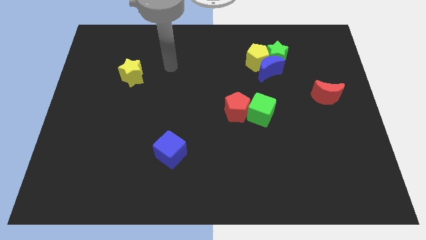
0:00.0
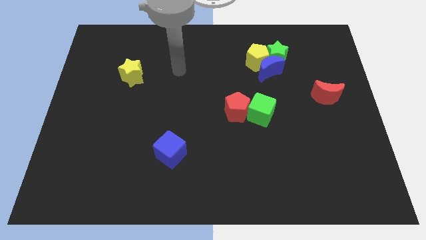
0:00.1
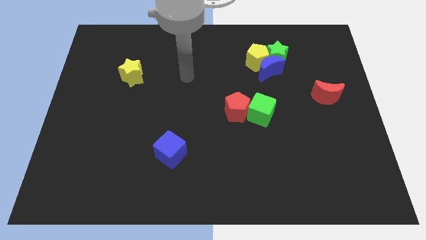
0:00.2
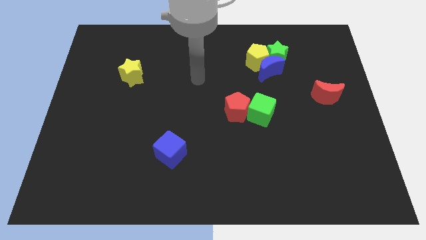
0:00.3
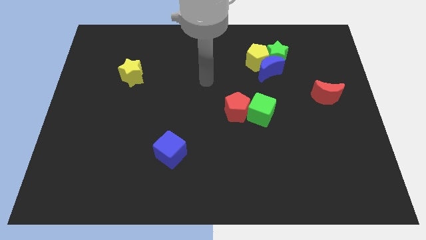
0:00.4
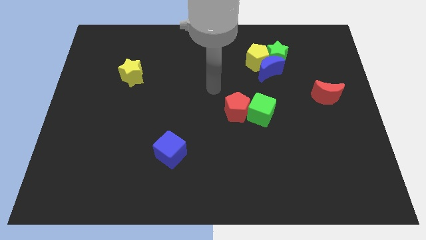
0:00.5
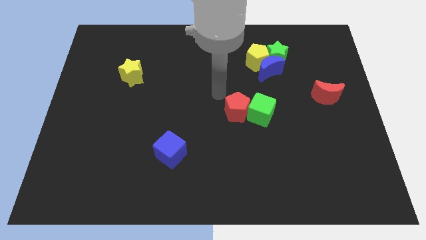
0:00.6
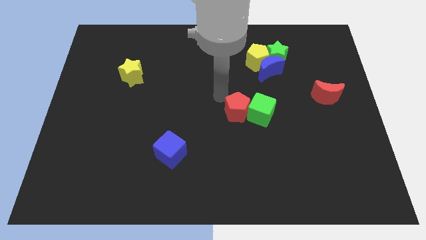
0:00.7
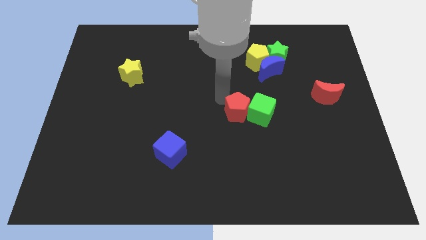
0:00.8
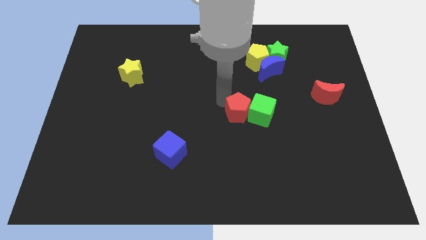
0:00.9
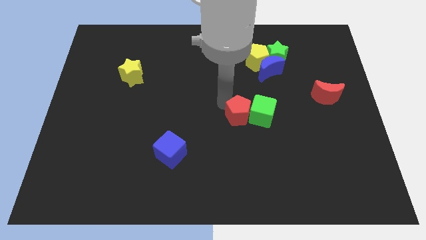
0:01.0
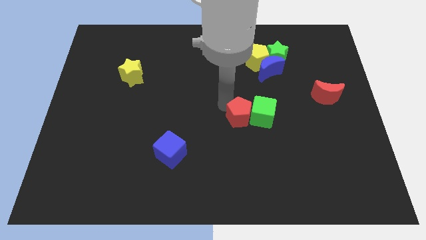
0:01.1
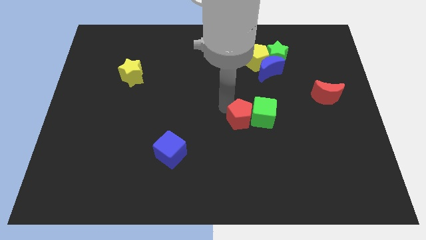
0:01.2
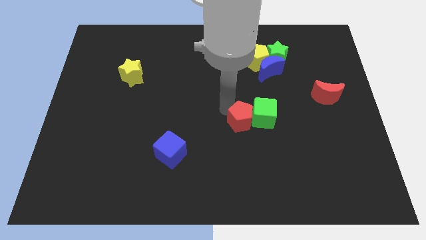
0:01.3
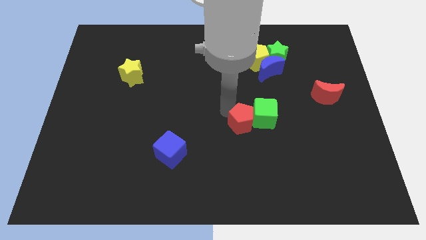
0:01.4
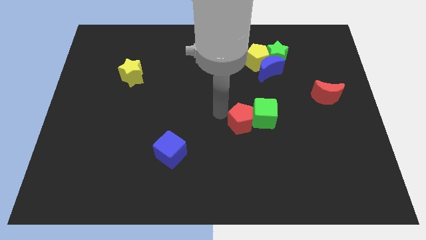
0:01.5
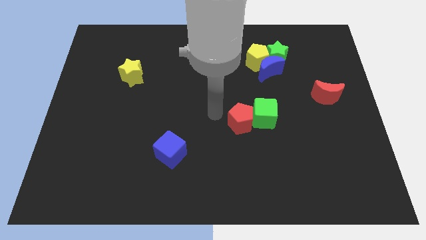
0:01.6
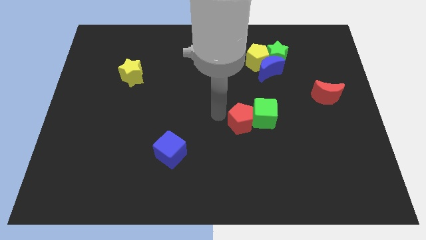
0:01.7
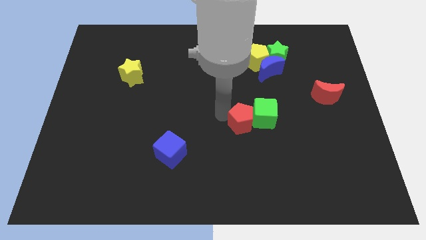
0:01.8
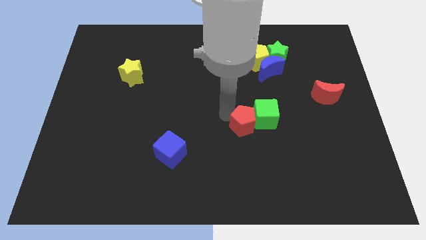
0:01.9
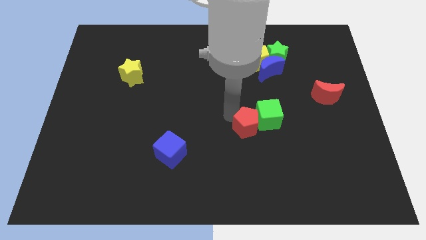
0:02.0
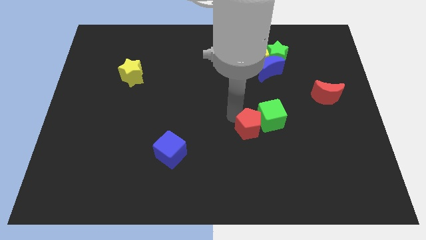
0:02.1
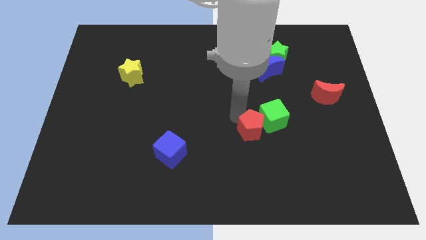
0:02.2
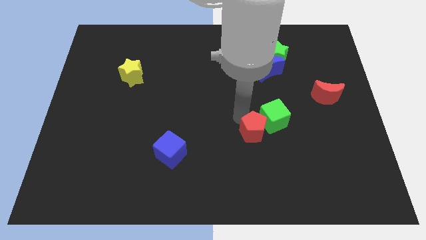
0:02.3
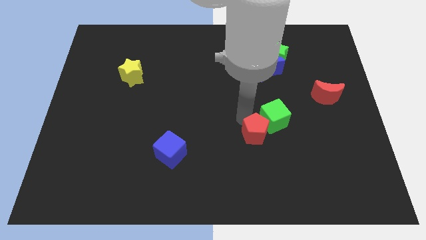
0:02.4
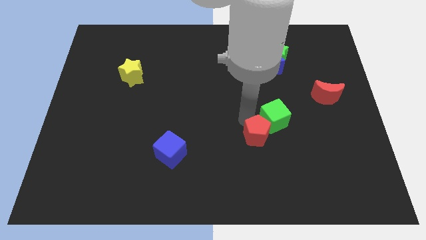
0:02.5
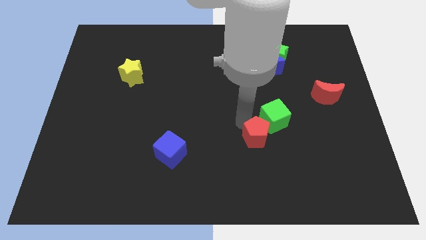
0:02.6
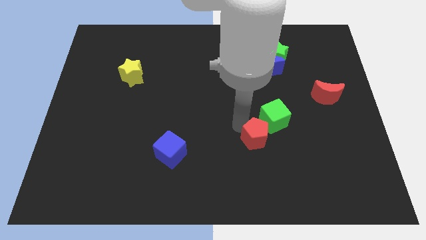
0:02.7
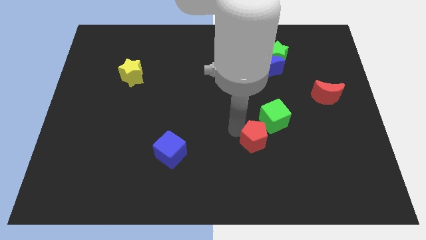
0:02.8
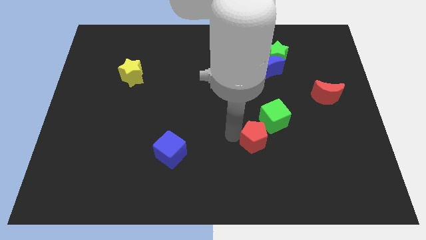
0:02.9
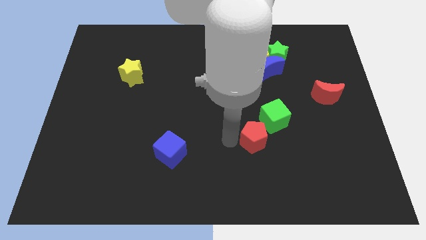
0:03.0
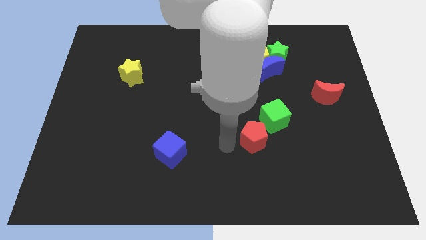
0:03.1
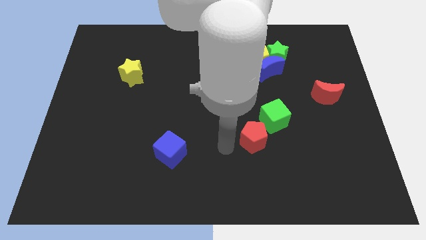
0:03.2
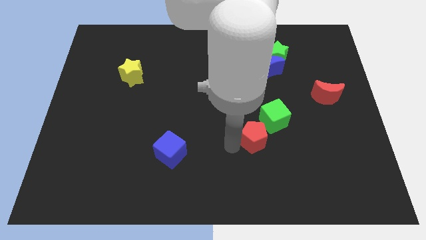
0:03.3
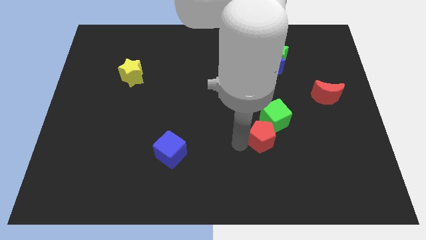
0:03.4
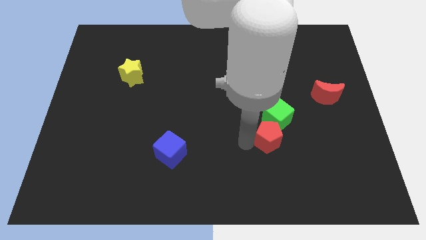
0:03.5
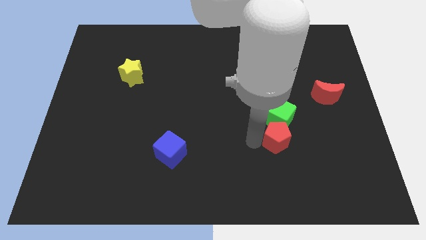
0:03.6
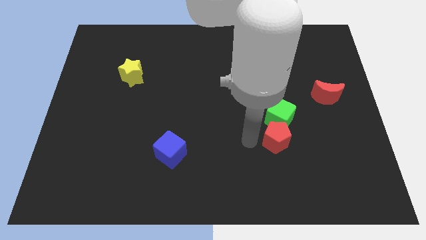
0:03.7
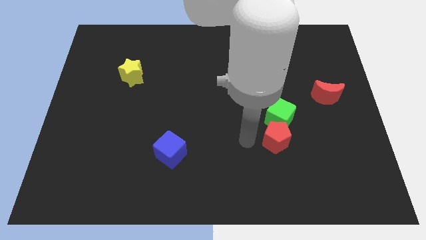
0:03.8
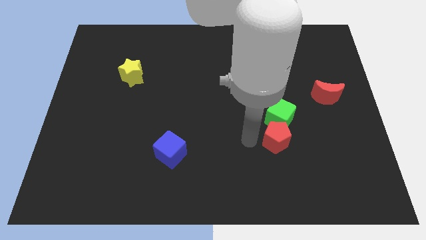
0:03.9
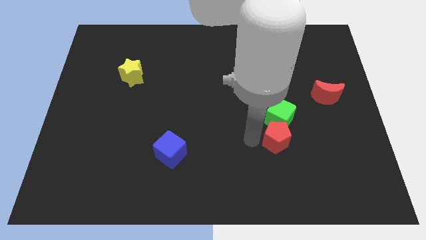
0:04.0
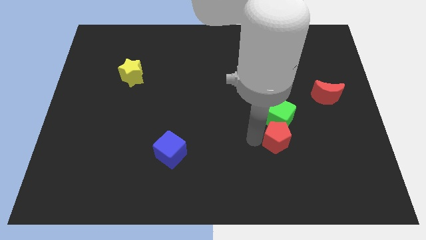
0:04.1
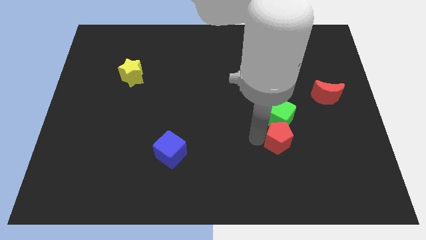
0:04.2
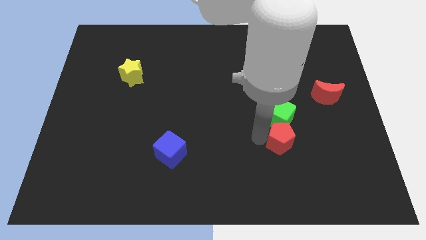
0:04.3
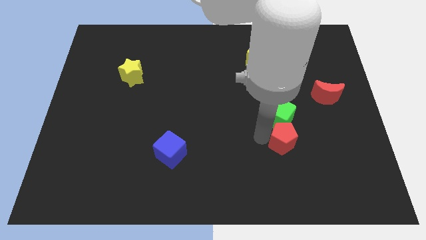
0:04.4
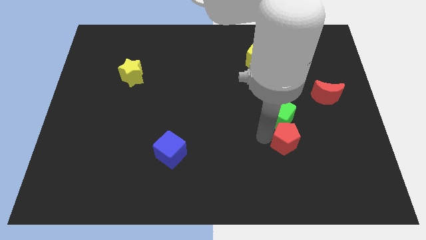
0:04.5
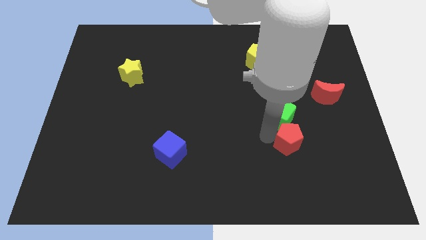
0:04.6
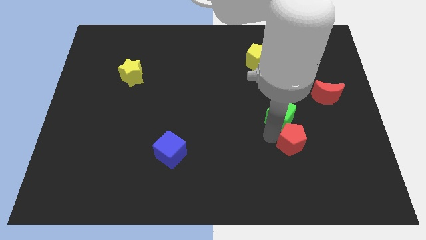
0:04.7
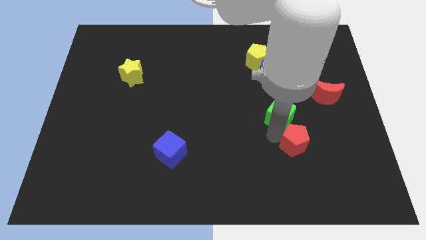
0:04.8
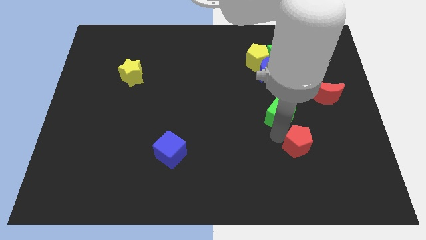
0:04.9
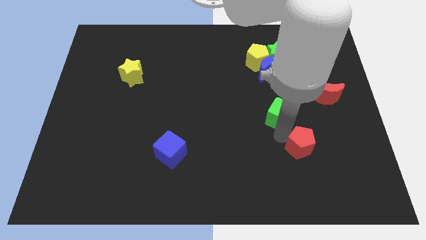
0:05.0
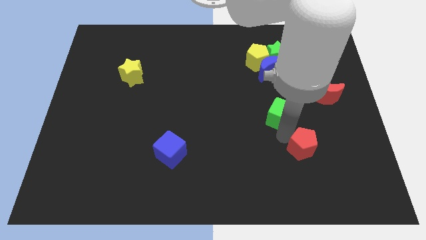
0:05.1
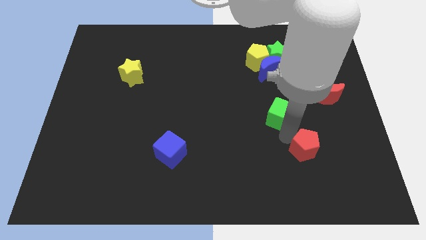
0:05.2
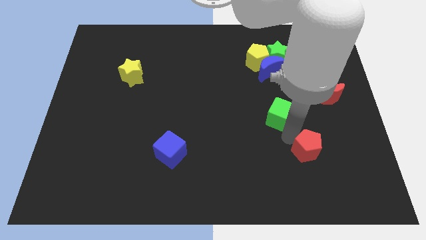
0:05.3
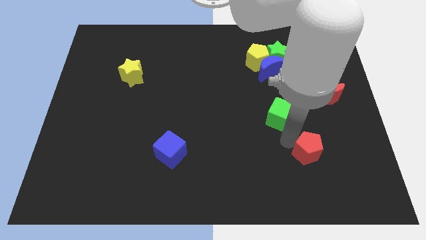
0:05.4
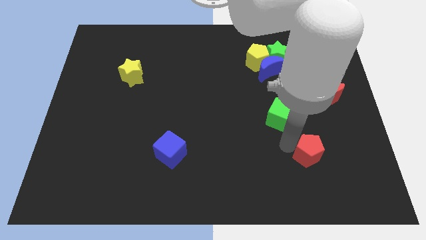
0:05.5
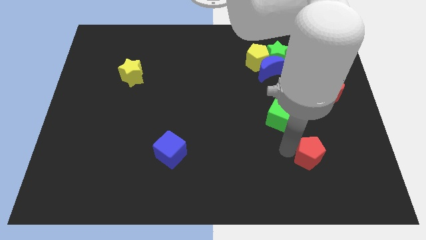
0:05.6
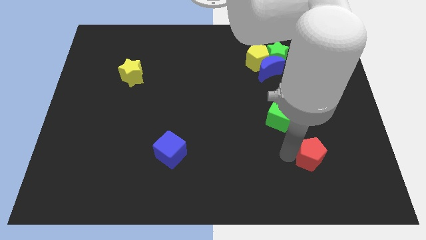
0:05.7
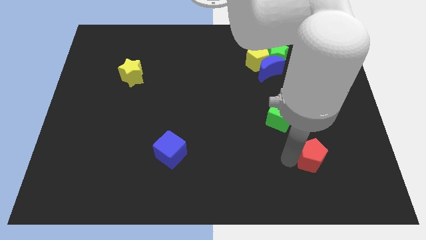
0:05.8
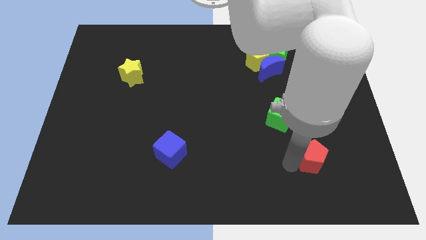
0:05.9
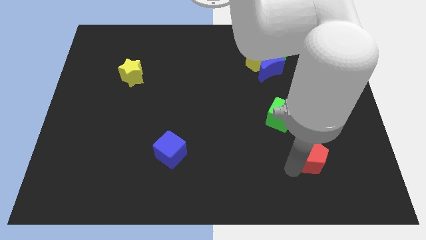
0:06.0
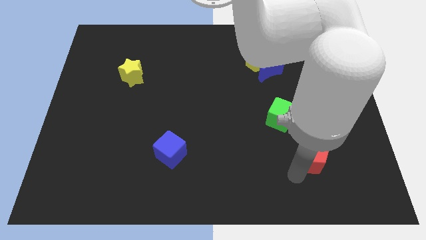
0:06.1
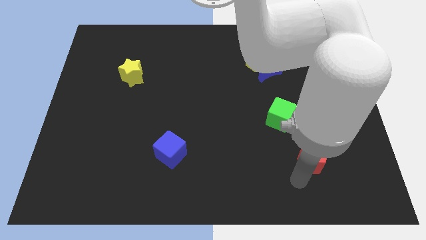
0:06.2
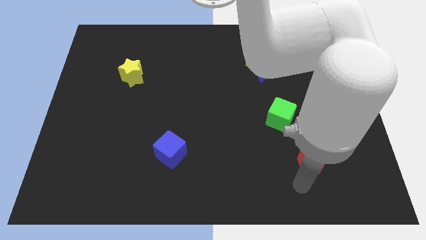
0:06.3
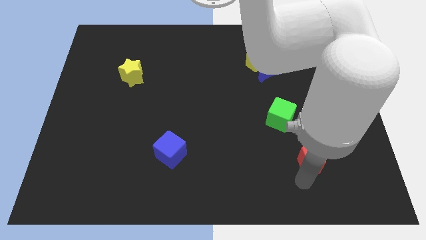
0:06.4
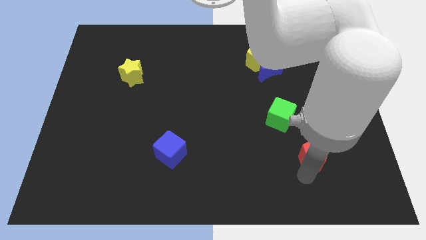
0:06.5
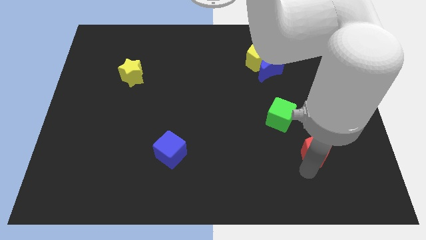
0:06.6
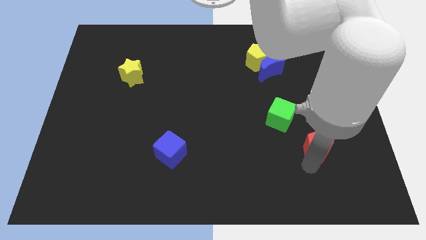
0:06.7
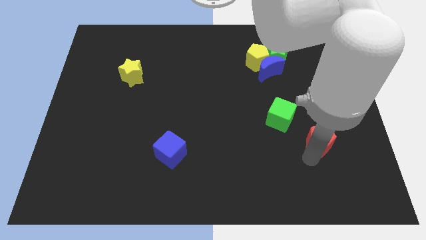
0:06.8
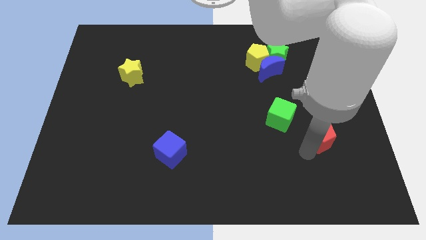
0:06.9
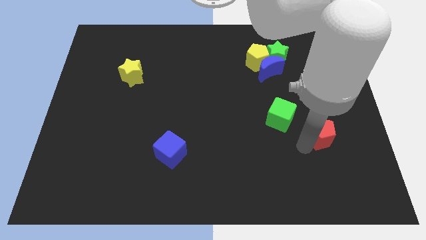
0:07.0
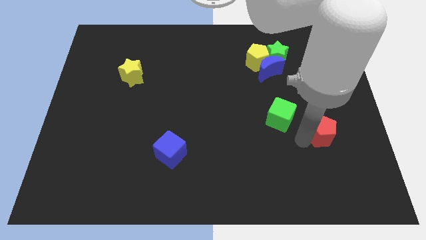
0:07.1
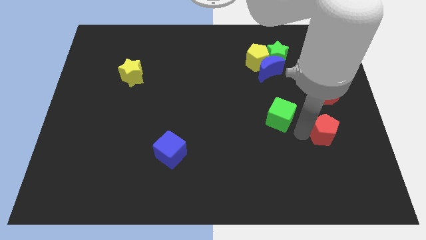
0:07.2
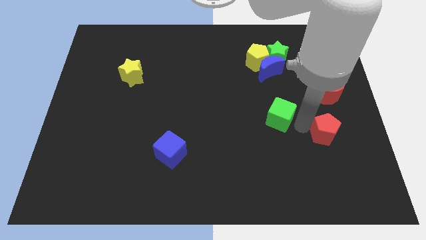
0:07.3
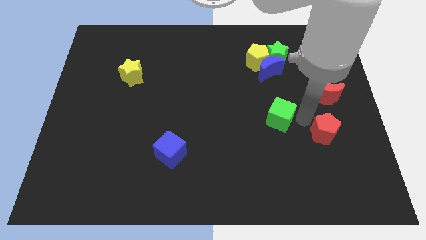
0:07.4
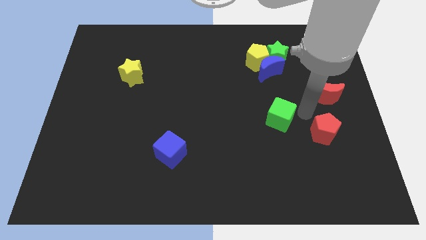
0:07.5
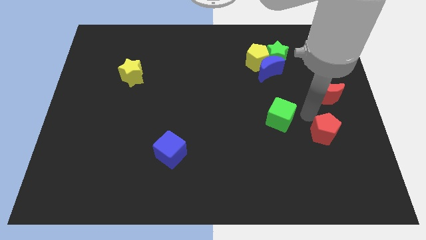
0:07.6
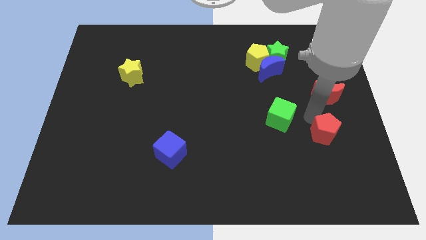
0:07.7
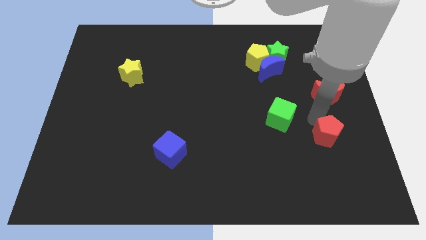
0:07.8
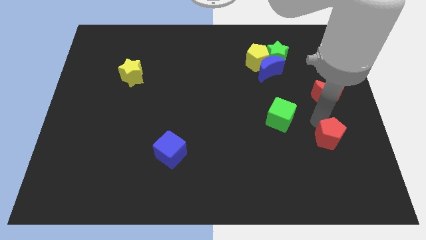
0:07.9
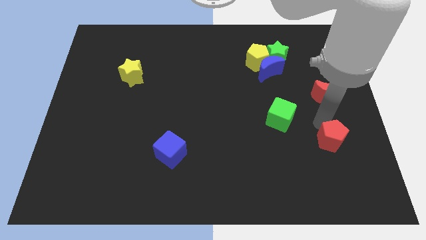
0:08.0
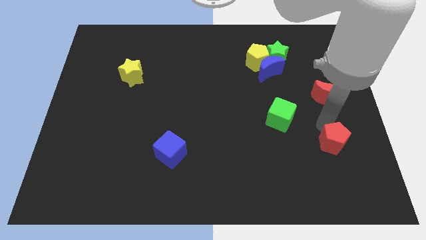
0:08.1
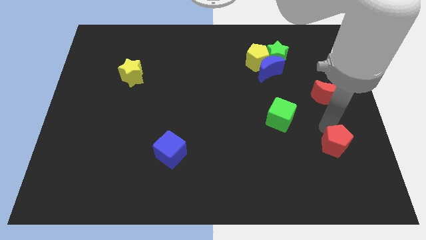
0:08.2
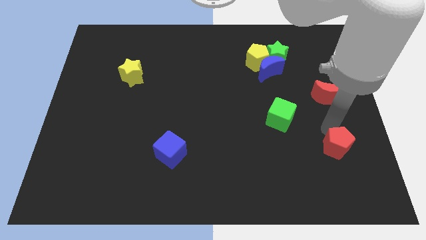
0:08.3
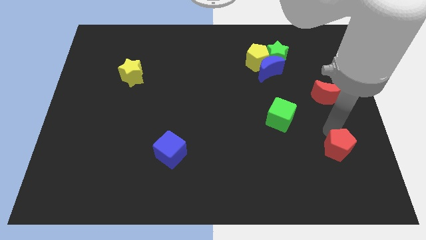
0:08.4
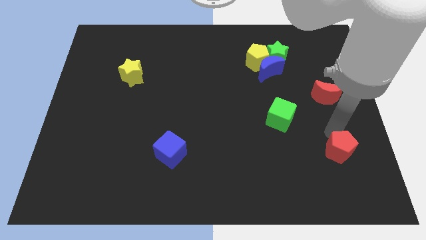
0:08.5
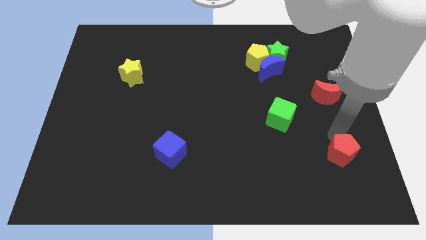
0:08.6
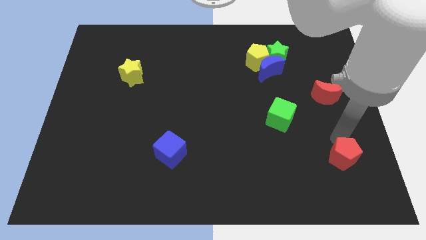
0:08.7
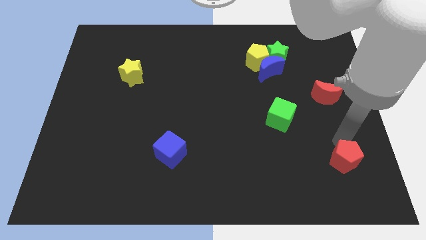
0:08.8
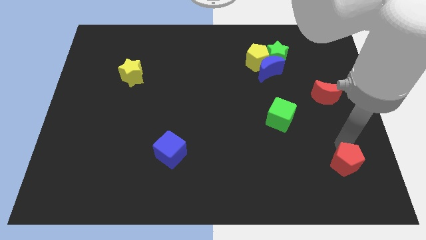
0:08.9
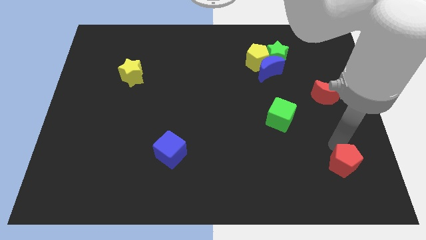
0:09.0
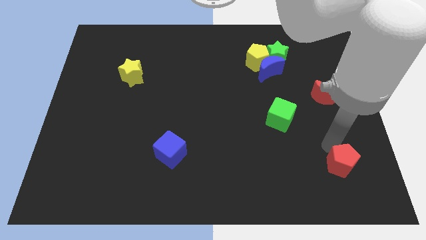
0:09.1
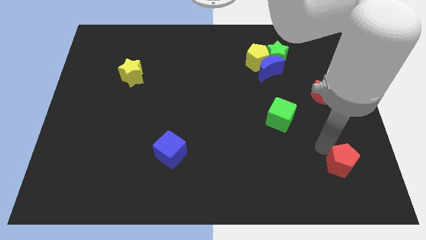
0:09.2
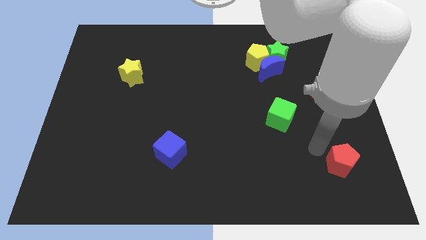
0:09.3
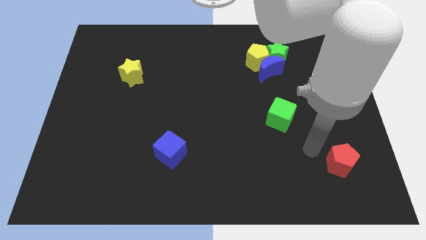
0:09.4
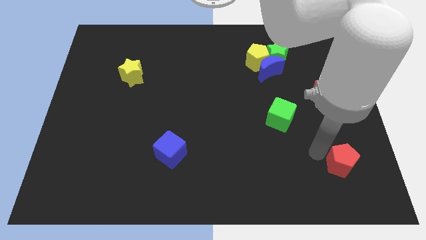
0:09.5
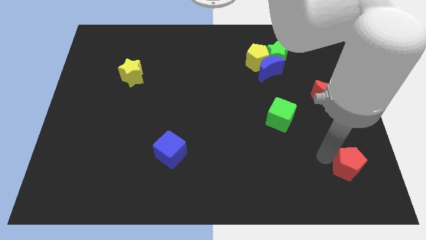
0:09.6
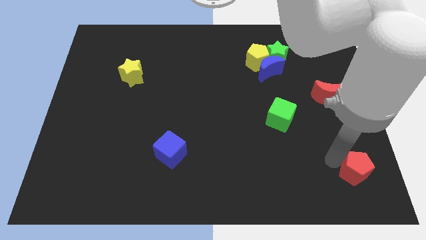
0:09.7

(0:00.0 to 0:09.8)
slide the red pentagon to the bottom right
